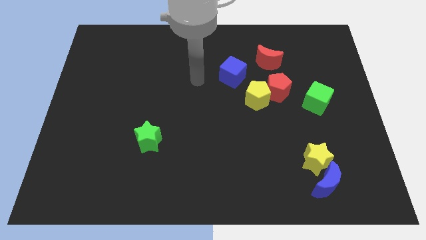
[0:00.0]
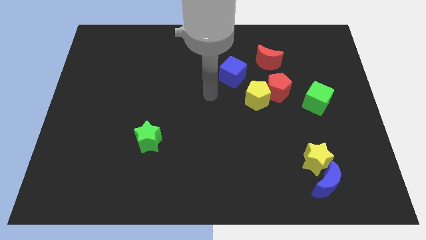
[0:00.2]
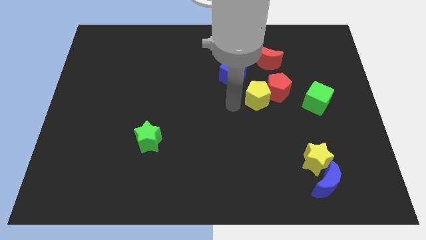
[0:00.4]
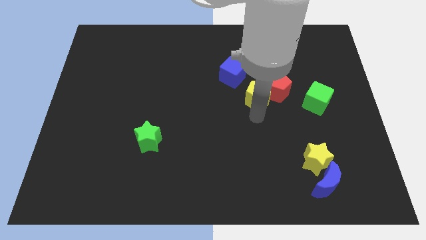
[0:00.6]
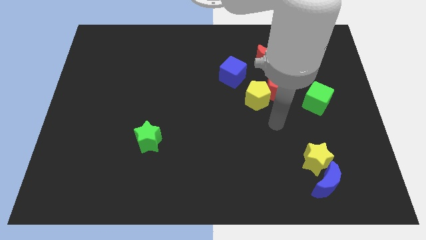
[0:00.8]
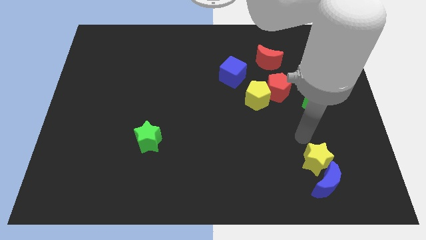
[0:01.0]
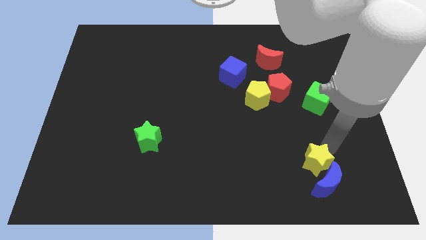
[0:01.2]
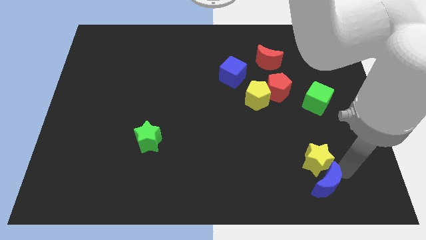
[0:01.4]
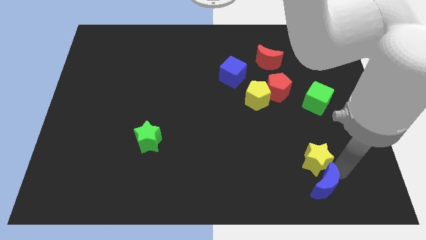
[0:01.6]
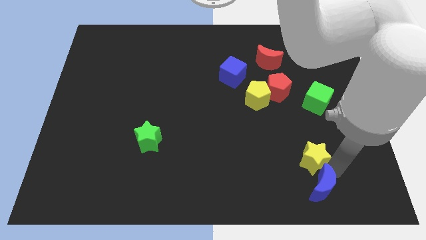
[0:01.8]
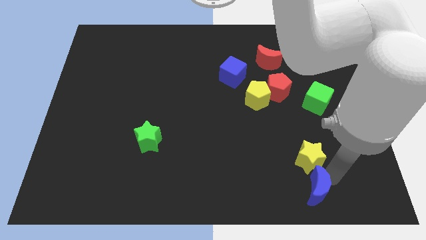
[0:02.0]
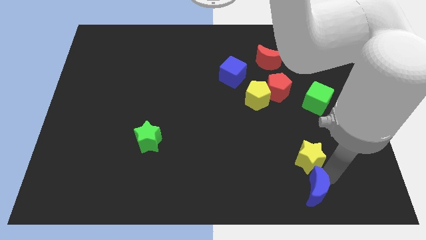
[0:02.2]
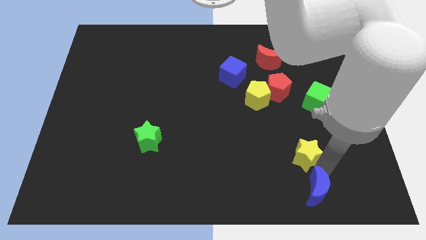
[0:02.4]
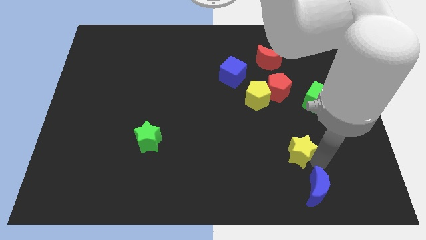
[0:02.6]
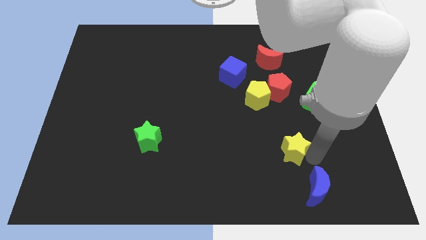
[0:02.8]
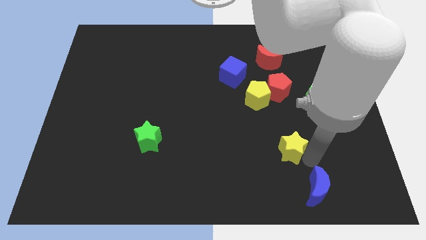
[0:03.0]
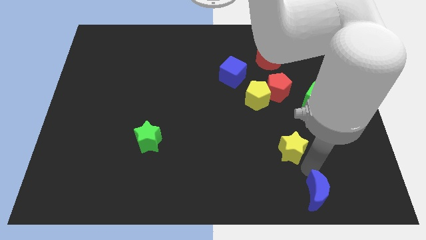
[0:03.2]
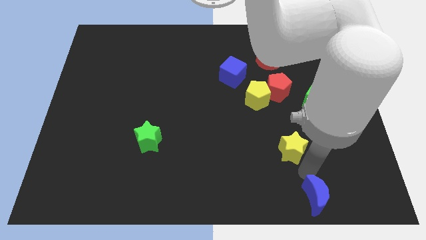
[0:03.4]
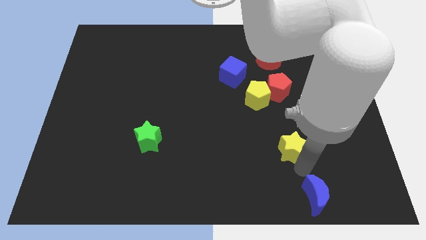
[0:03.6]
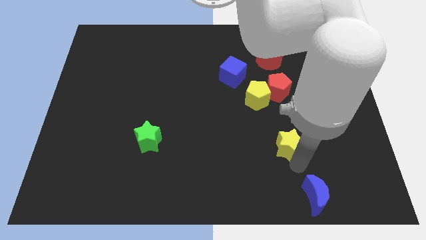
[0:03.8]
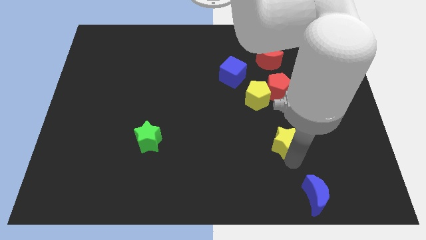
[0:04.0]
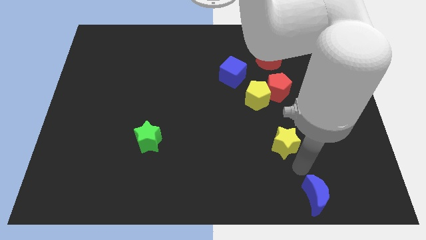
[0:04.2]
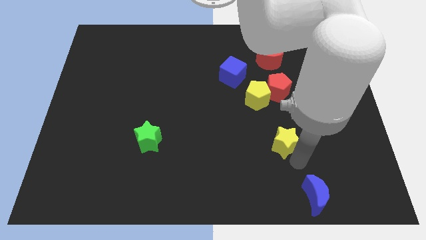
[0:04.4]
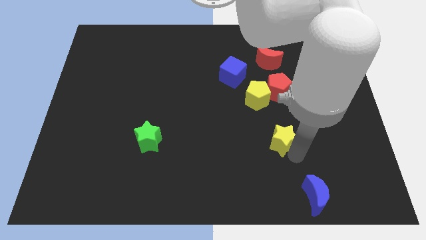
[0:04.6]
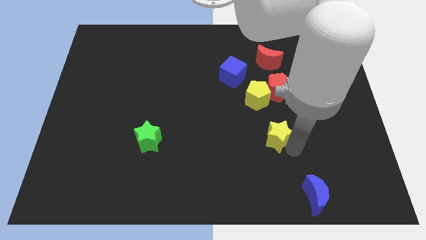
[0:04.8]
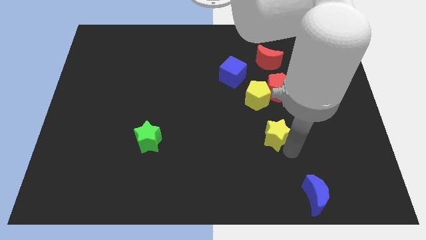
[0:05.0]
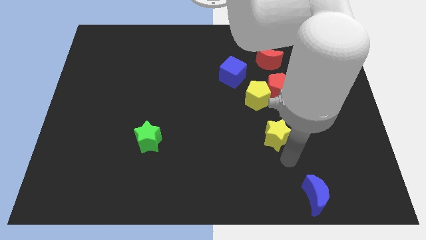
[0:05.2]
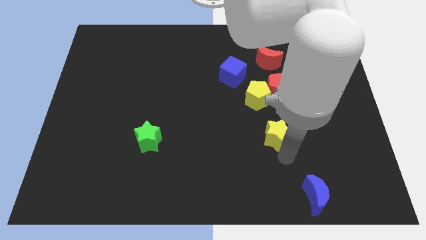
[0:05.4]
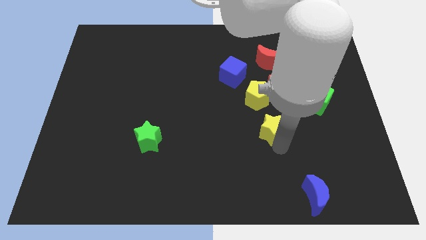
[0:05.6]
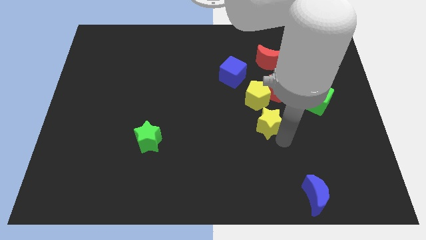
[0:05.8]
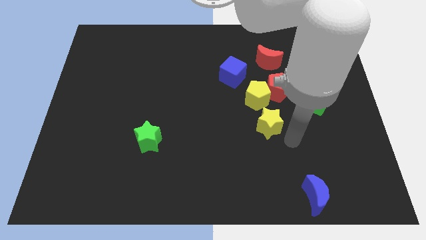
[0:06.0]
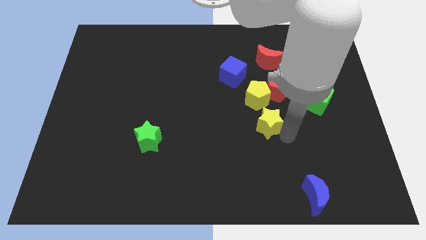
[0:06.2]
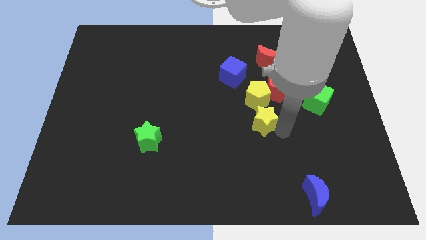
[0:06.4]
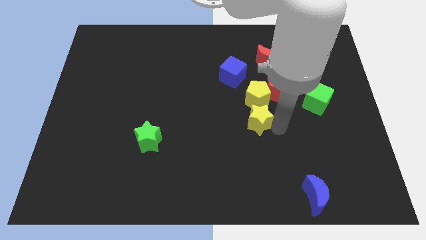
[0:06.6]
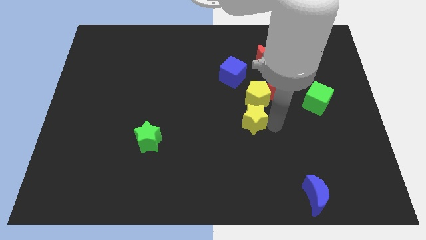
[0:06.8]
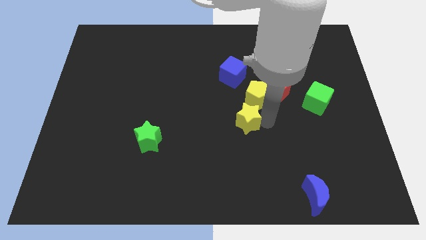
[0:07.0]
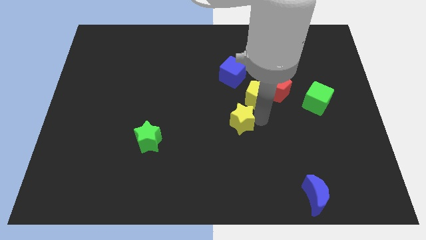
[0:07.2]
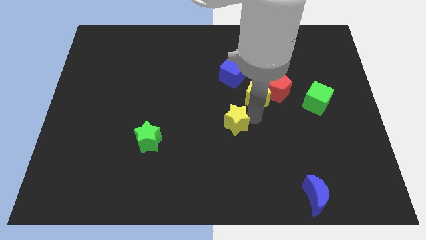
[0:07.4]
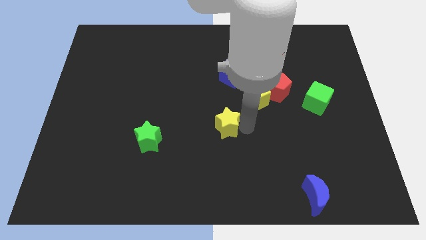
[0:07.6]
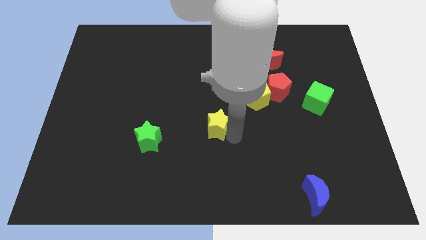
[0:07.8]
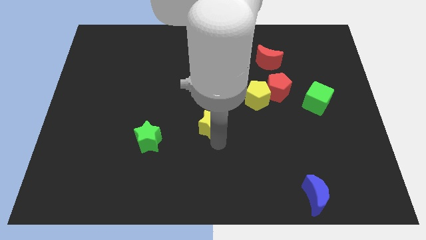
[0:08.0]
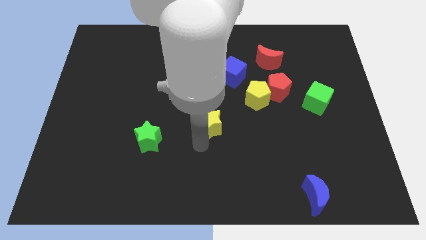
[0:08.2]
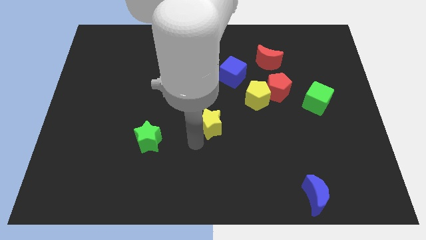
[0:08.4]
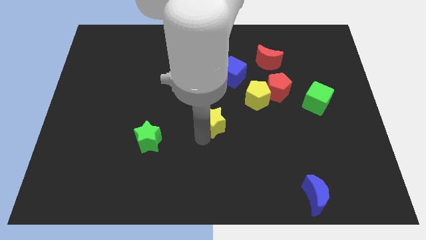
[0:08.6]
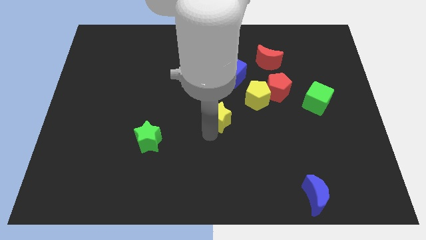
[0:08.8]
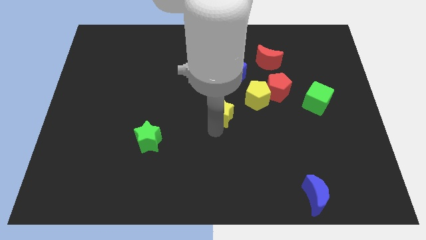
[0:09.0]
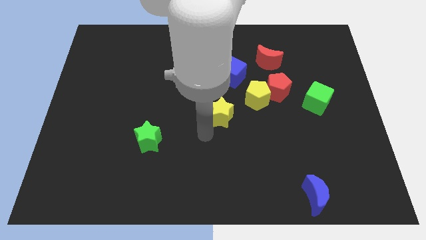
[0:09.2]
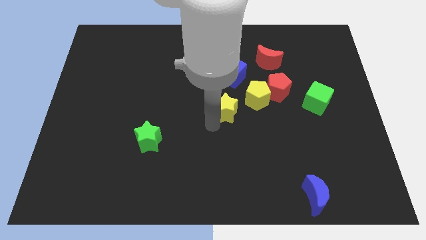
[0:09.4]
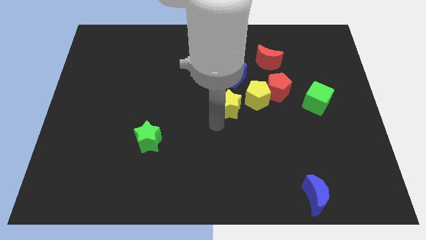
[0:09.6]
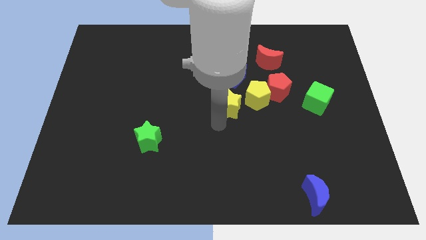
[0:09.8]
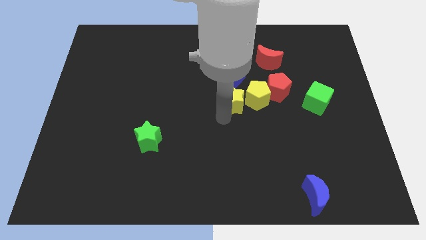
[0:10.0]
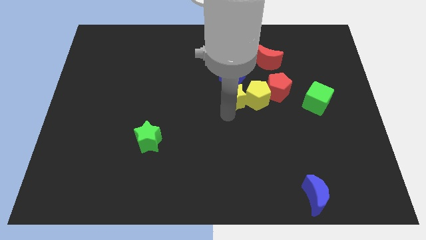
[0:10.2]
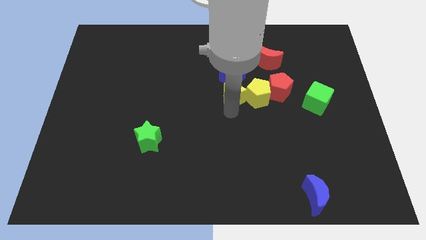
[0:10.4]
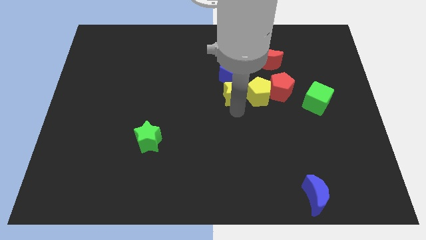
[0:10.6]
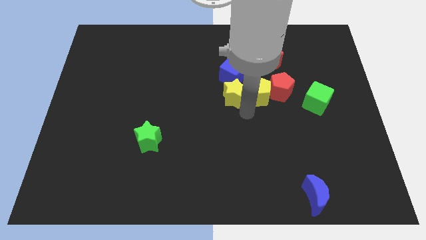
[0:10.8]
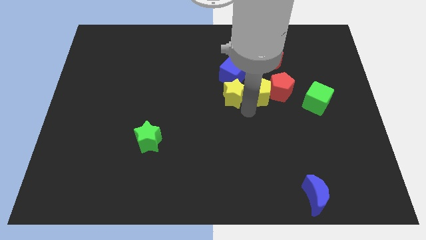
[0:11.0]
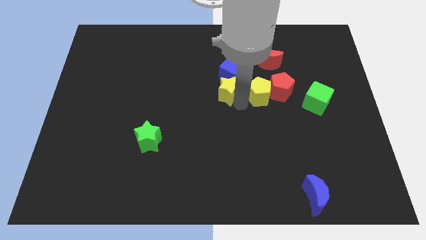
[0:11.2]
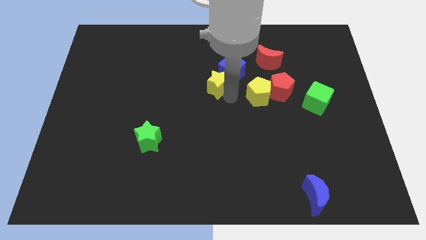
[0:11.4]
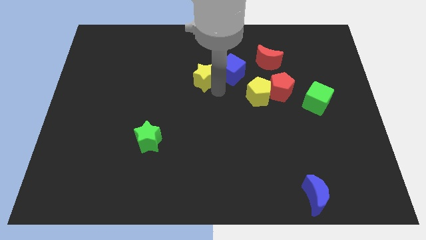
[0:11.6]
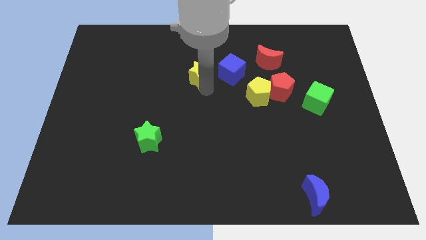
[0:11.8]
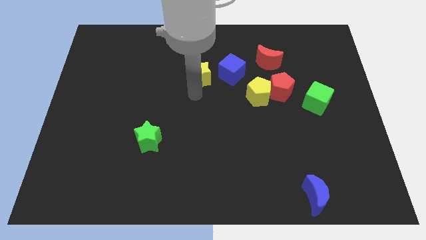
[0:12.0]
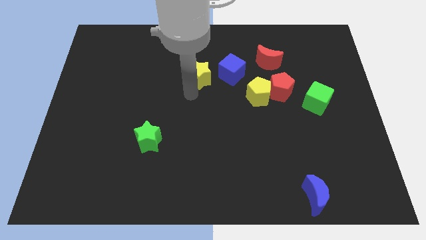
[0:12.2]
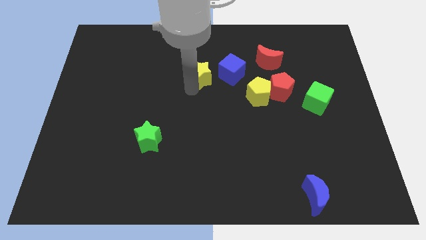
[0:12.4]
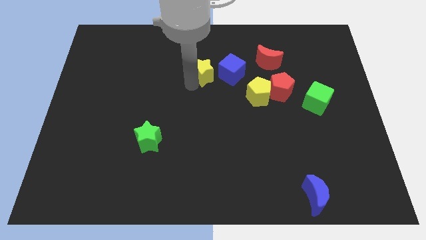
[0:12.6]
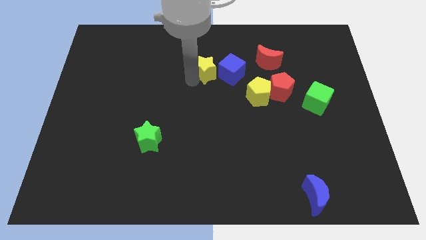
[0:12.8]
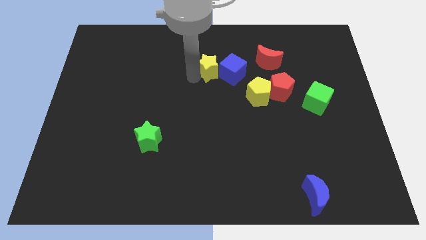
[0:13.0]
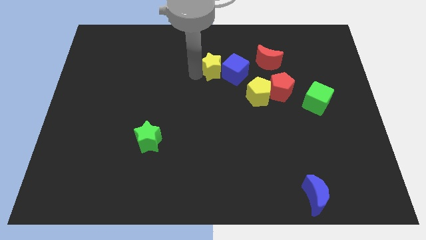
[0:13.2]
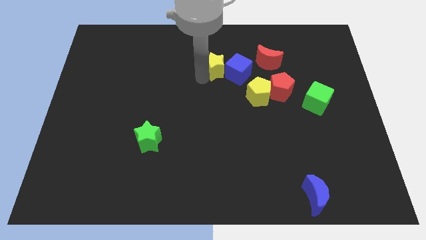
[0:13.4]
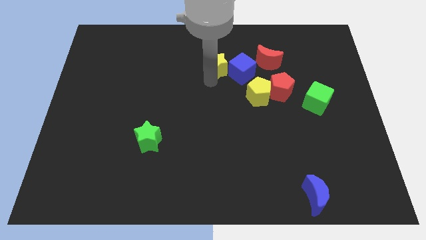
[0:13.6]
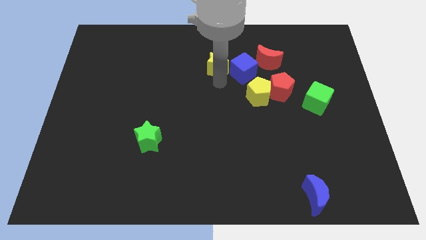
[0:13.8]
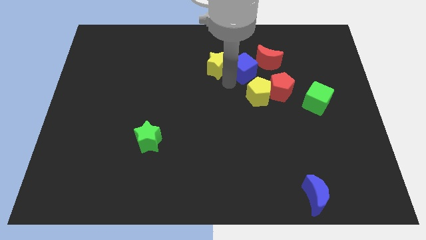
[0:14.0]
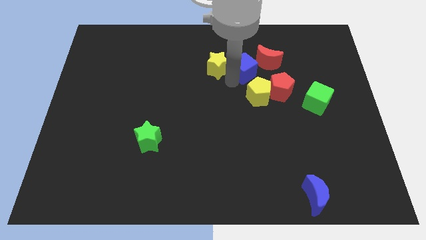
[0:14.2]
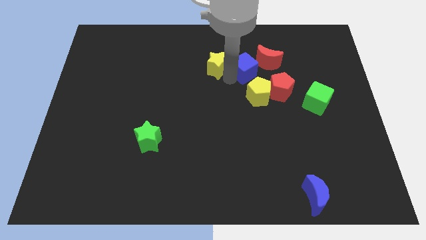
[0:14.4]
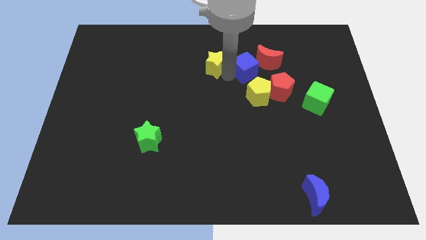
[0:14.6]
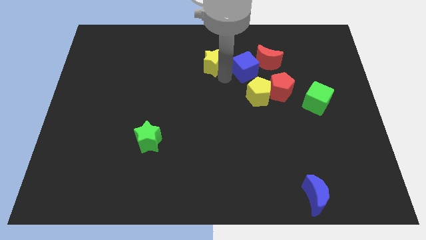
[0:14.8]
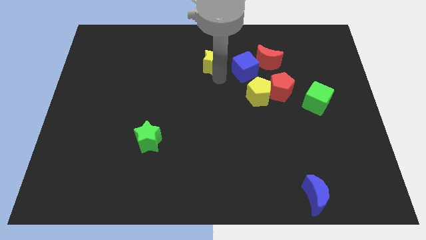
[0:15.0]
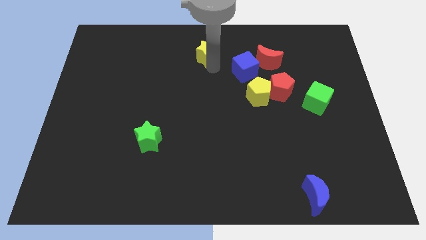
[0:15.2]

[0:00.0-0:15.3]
push the yellow star to the towards your base
